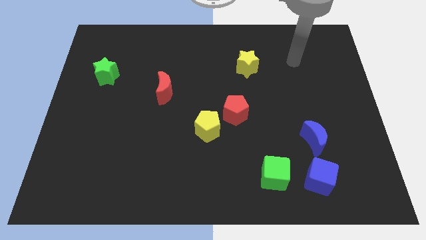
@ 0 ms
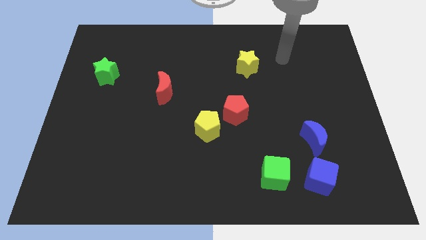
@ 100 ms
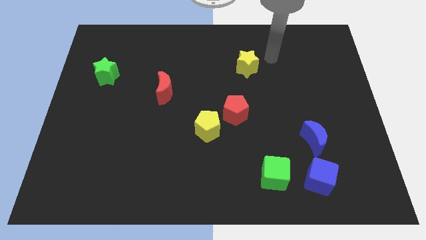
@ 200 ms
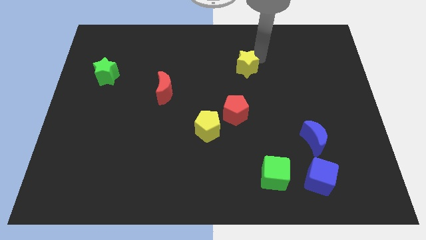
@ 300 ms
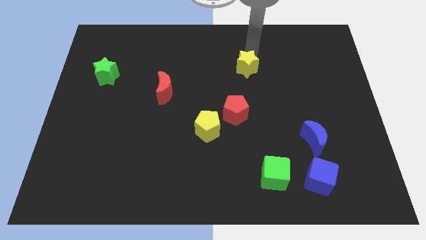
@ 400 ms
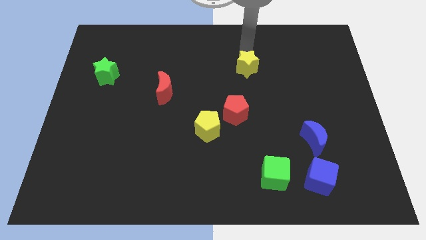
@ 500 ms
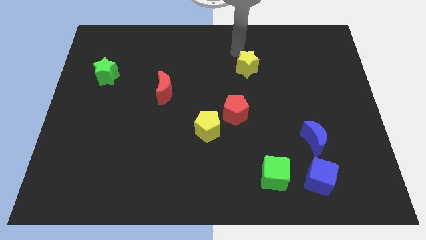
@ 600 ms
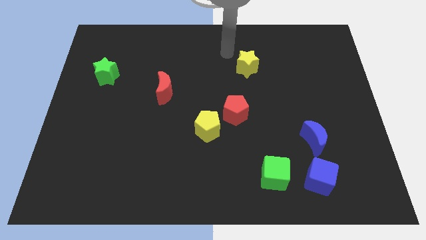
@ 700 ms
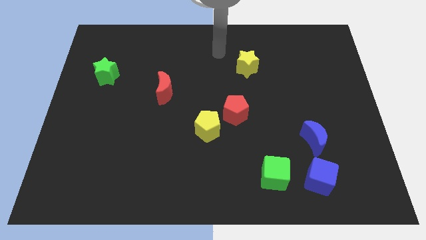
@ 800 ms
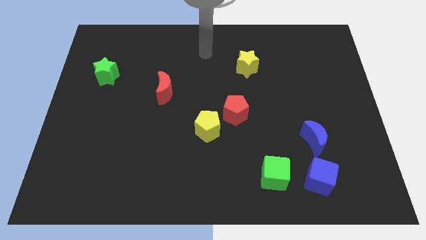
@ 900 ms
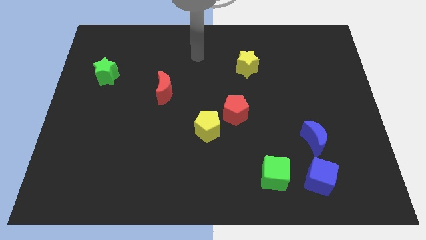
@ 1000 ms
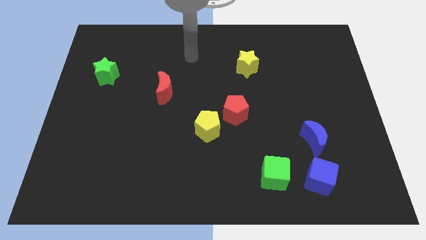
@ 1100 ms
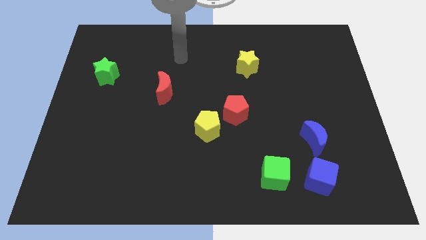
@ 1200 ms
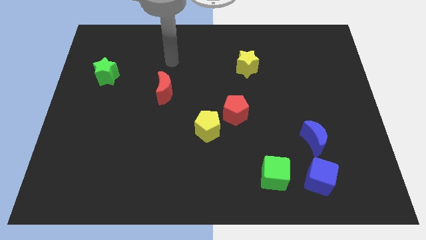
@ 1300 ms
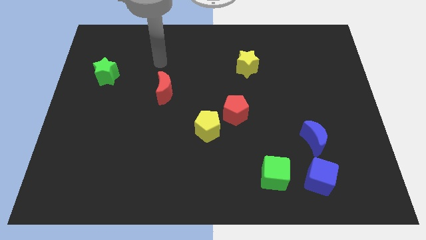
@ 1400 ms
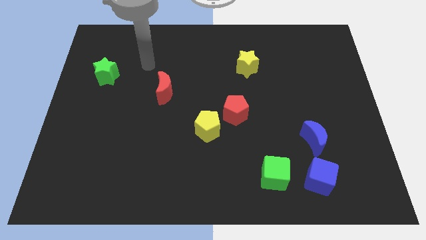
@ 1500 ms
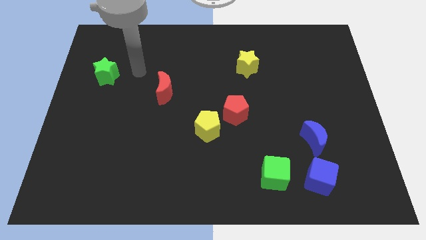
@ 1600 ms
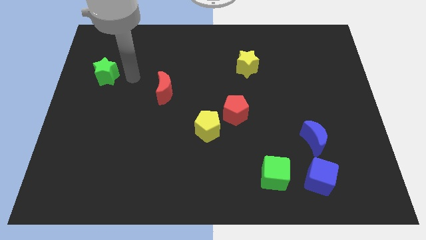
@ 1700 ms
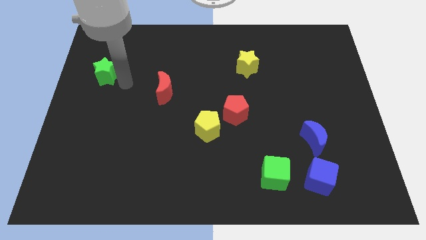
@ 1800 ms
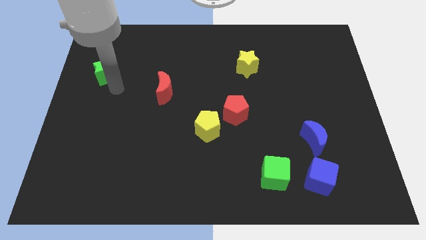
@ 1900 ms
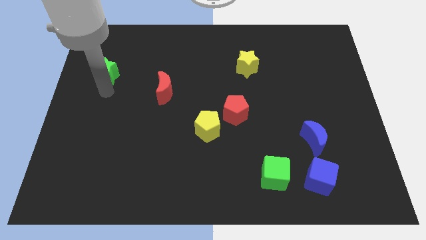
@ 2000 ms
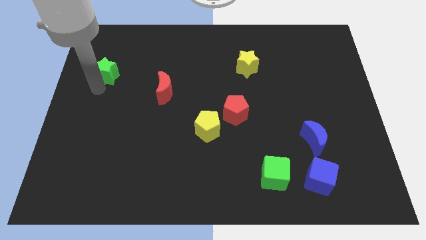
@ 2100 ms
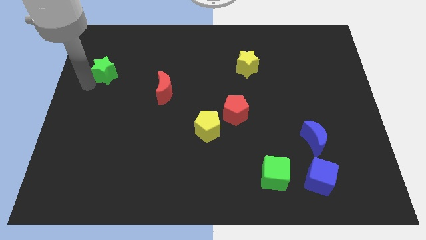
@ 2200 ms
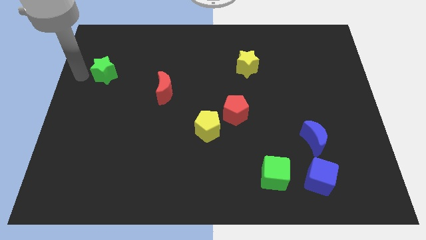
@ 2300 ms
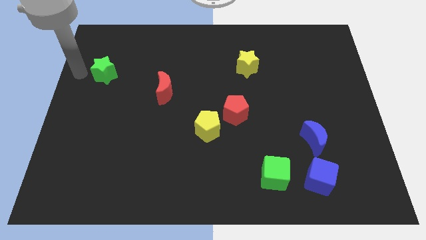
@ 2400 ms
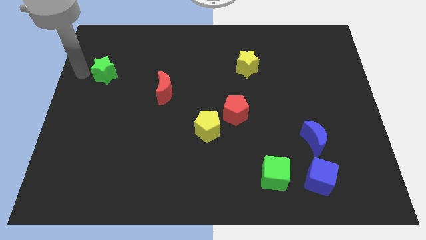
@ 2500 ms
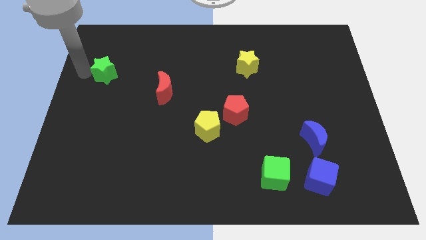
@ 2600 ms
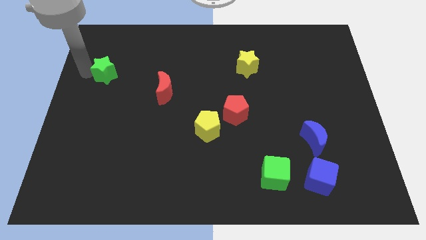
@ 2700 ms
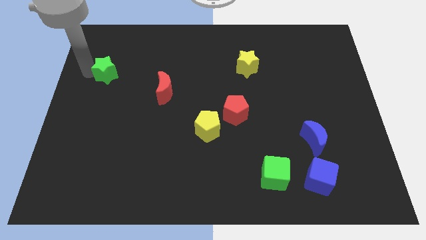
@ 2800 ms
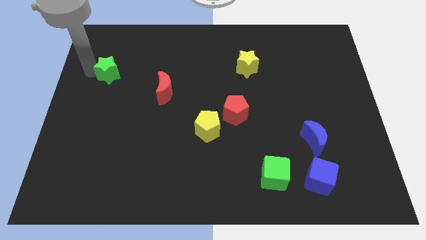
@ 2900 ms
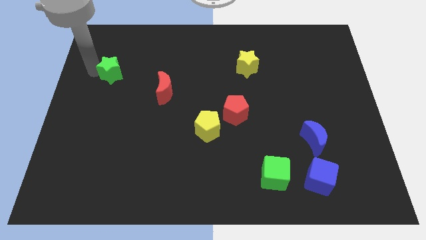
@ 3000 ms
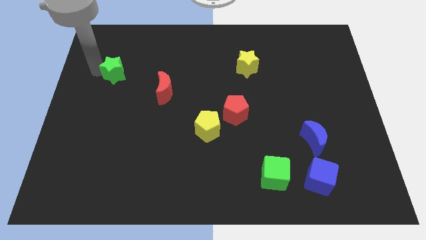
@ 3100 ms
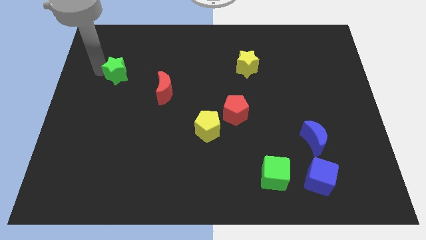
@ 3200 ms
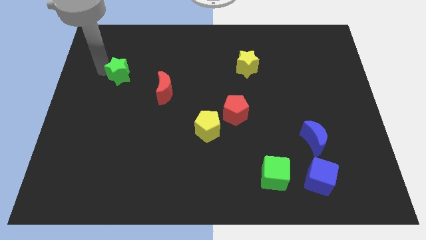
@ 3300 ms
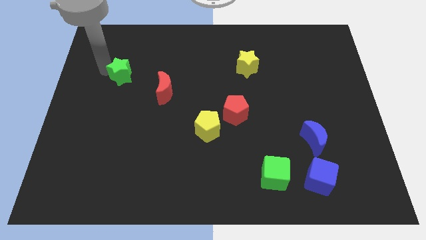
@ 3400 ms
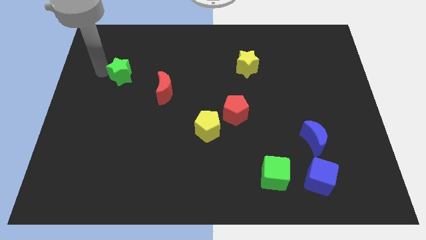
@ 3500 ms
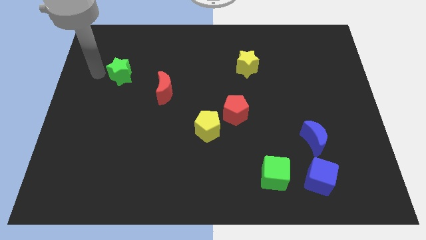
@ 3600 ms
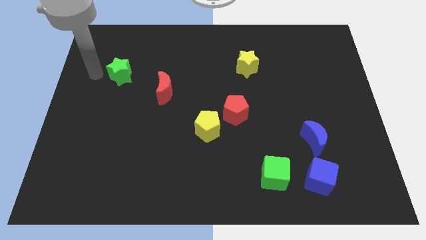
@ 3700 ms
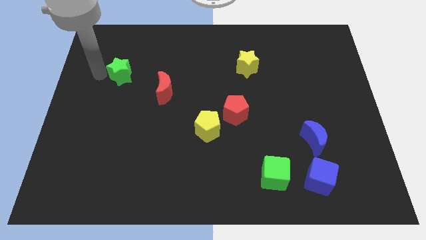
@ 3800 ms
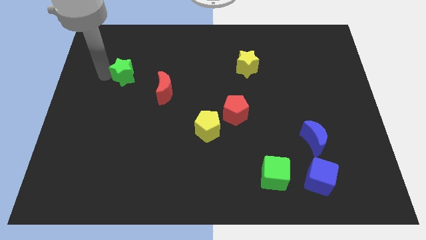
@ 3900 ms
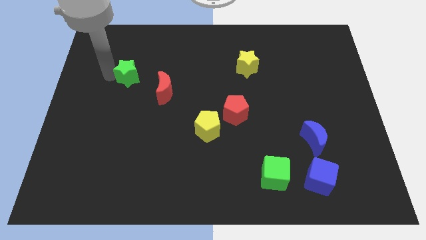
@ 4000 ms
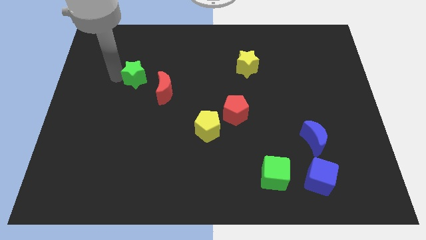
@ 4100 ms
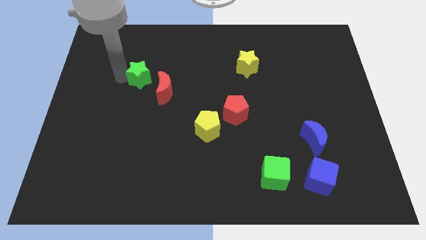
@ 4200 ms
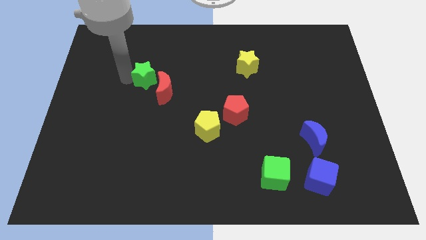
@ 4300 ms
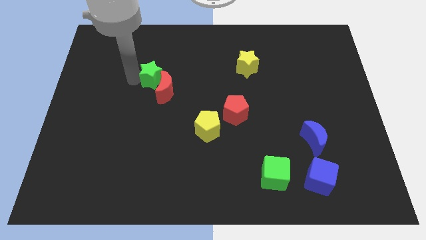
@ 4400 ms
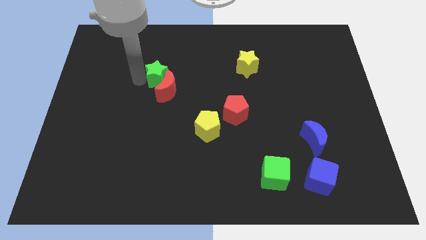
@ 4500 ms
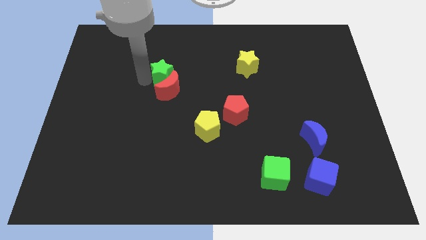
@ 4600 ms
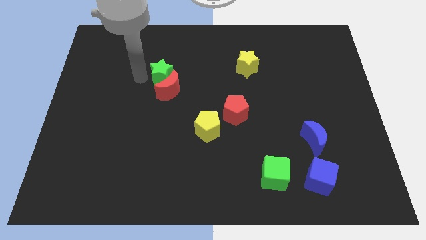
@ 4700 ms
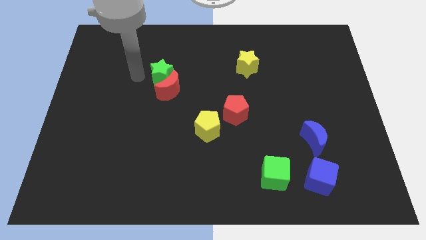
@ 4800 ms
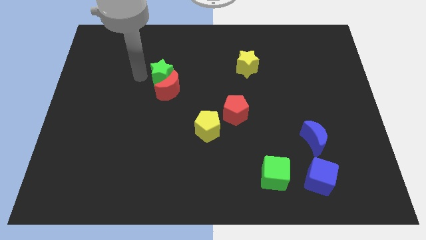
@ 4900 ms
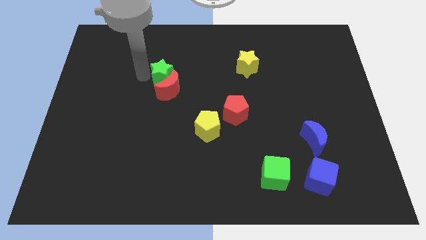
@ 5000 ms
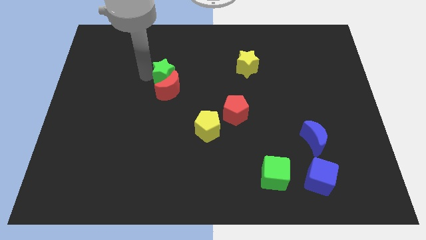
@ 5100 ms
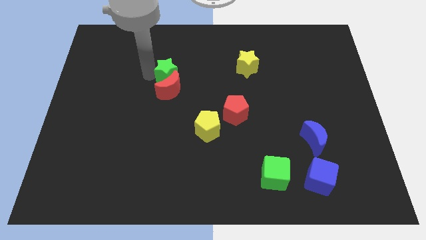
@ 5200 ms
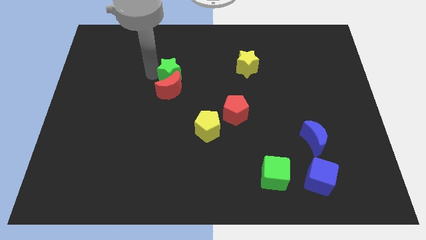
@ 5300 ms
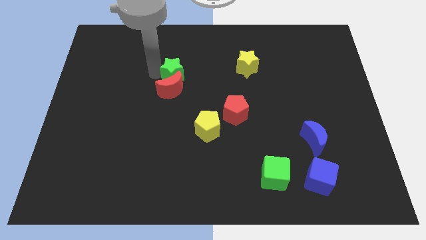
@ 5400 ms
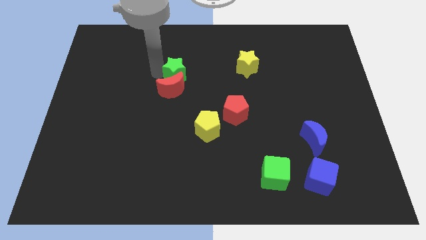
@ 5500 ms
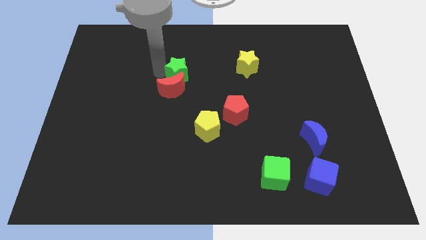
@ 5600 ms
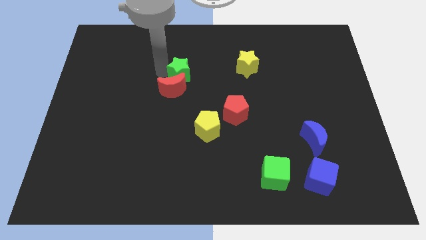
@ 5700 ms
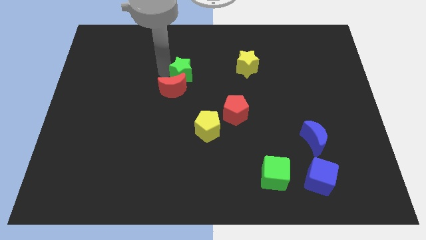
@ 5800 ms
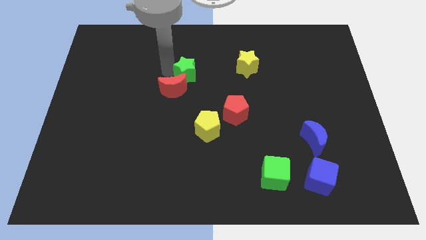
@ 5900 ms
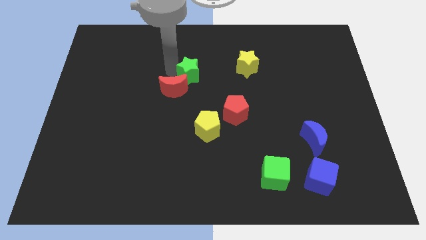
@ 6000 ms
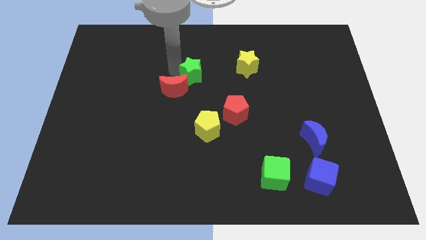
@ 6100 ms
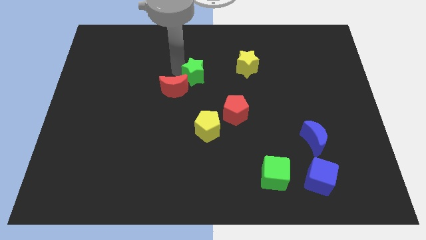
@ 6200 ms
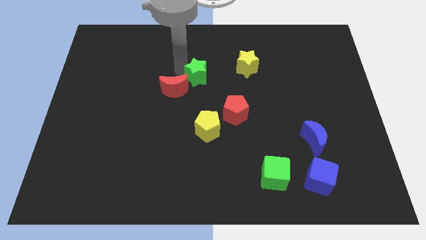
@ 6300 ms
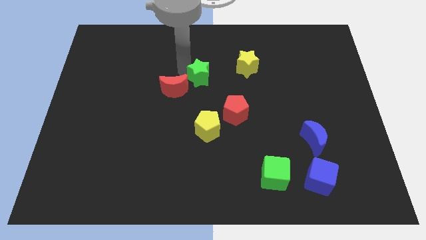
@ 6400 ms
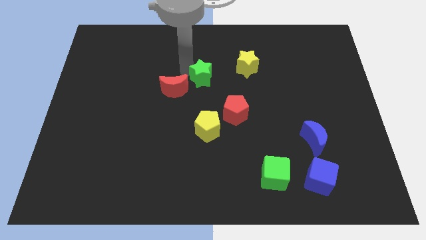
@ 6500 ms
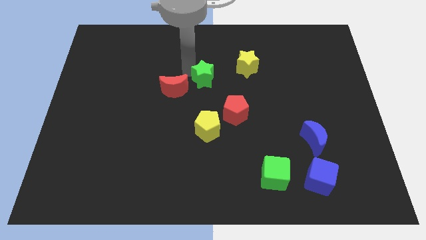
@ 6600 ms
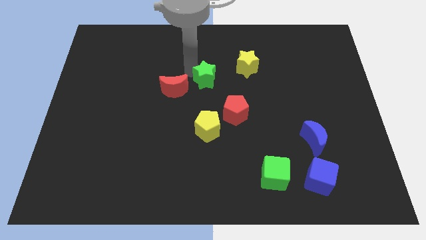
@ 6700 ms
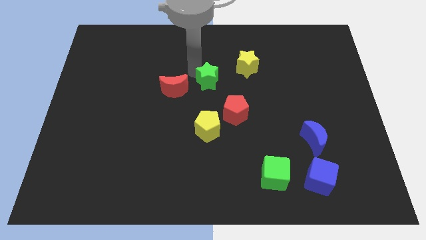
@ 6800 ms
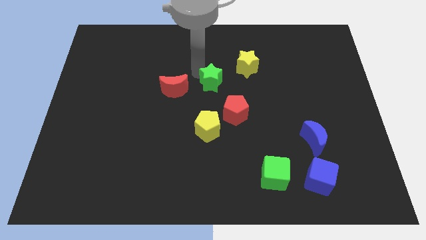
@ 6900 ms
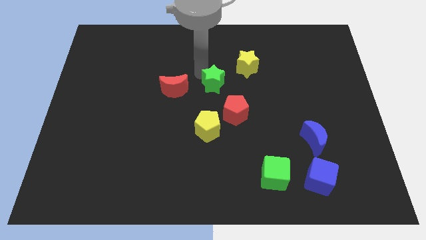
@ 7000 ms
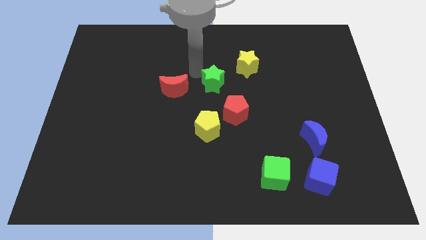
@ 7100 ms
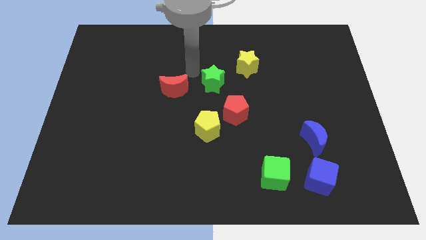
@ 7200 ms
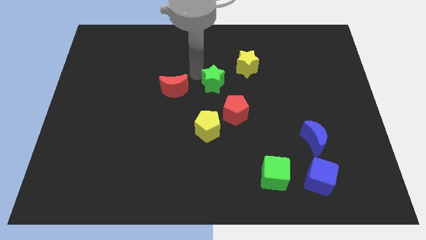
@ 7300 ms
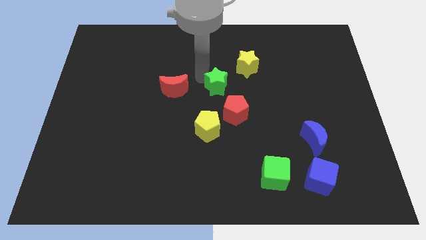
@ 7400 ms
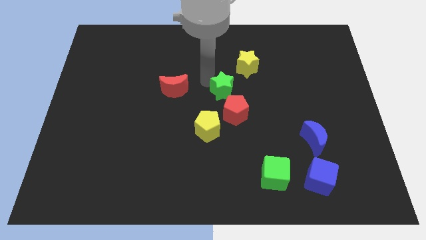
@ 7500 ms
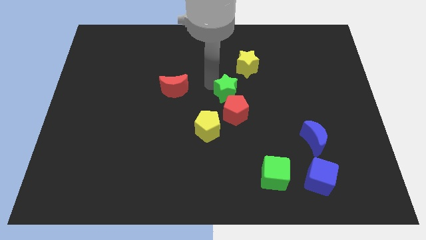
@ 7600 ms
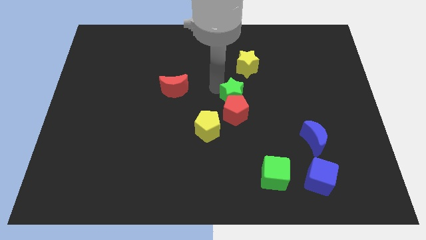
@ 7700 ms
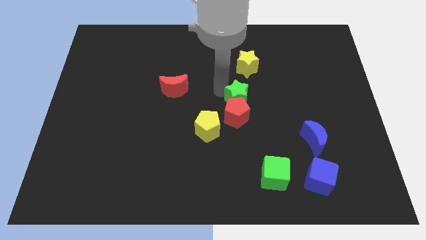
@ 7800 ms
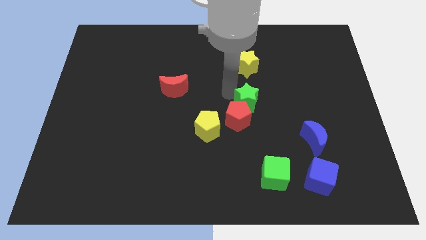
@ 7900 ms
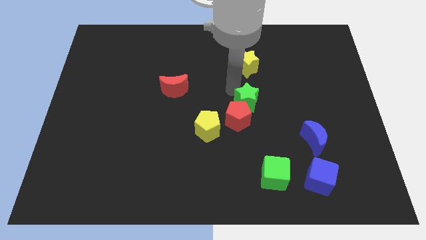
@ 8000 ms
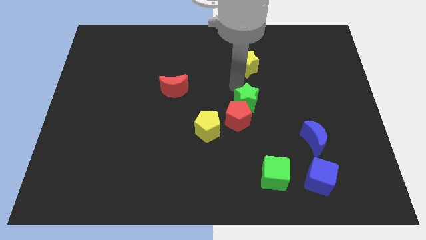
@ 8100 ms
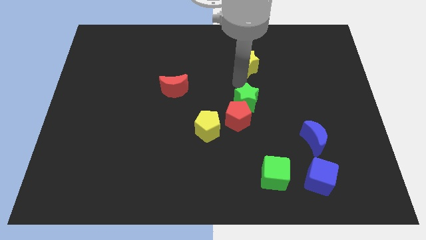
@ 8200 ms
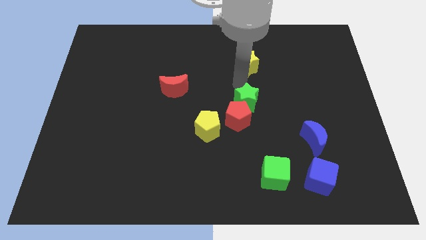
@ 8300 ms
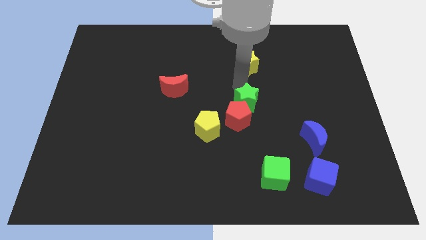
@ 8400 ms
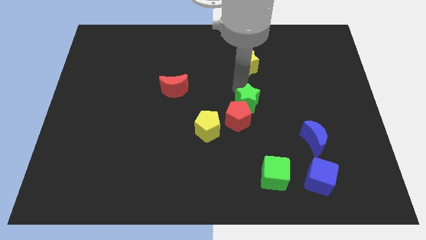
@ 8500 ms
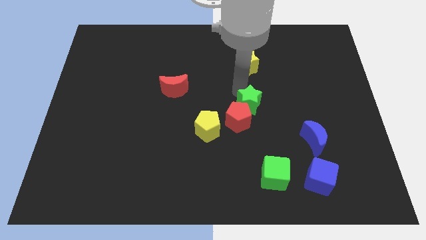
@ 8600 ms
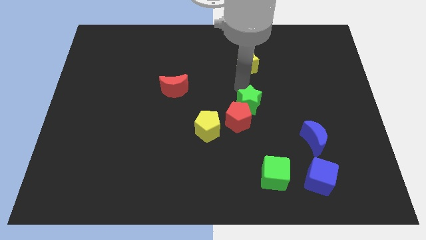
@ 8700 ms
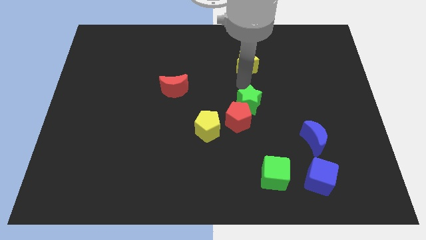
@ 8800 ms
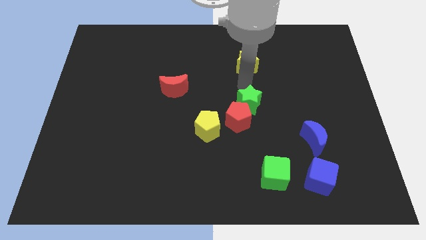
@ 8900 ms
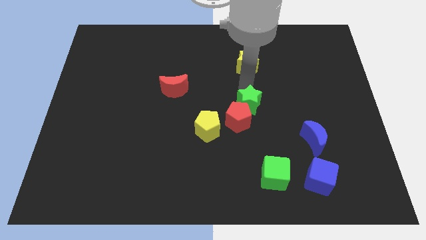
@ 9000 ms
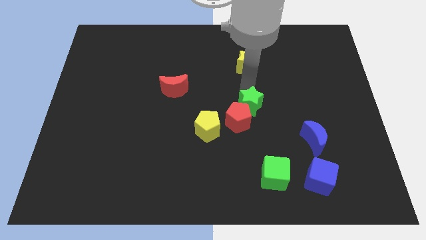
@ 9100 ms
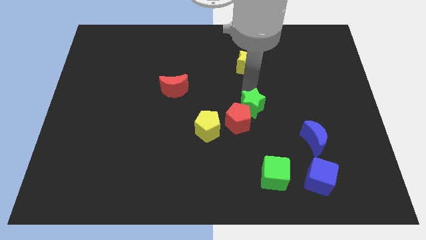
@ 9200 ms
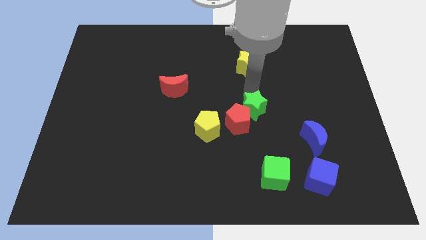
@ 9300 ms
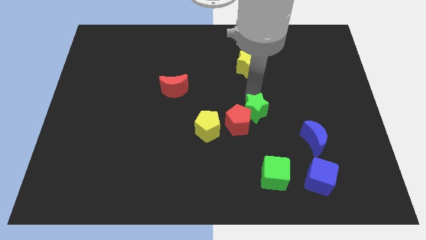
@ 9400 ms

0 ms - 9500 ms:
push the green star to the right side of the yellow pentagon
